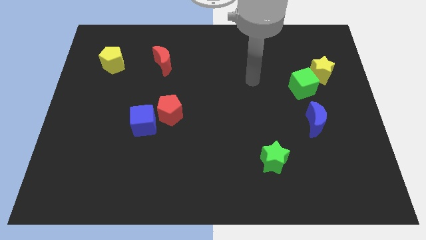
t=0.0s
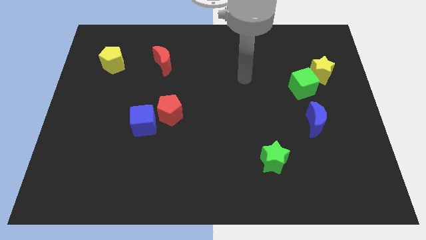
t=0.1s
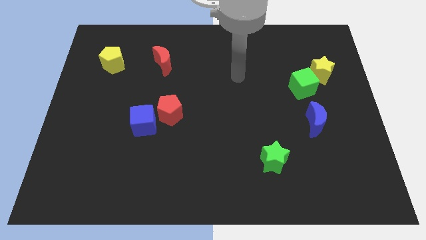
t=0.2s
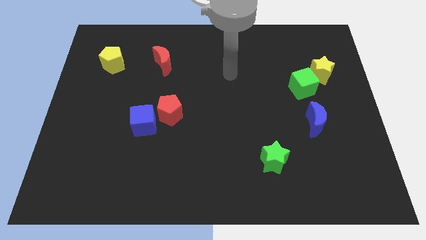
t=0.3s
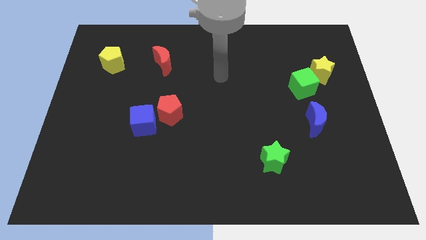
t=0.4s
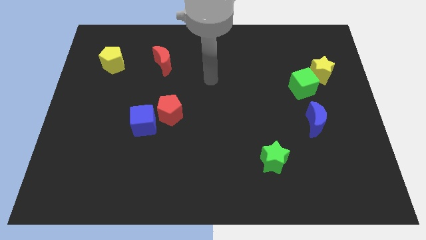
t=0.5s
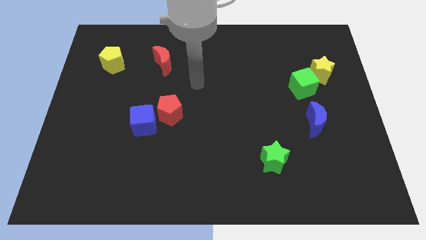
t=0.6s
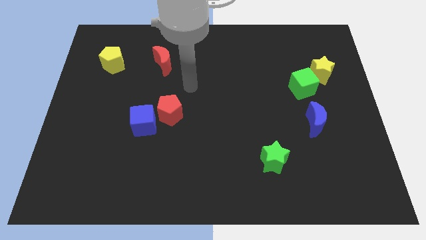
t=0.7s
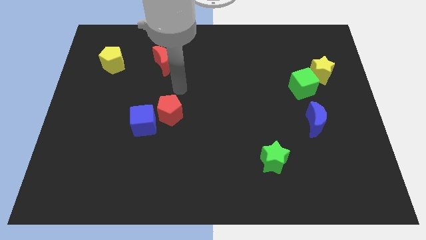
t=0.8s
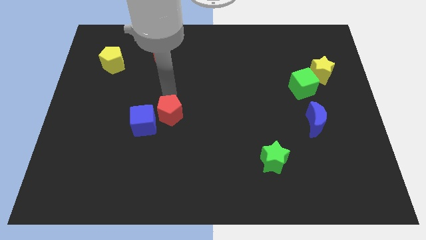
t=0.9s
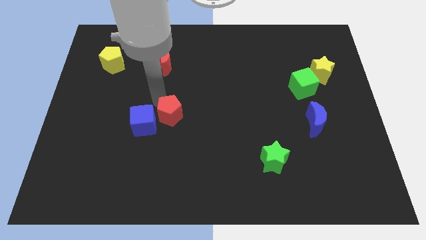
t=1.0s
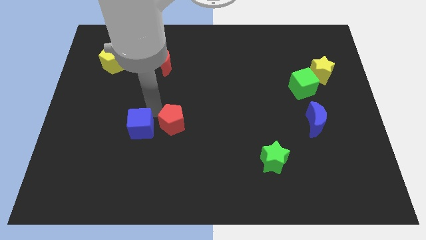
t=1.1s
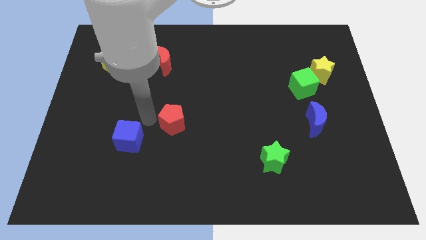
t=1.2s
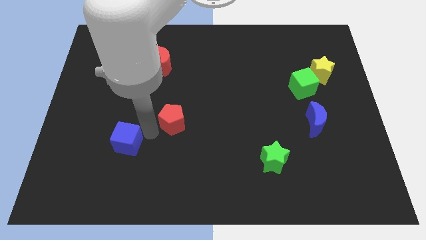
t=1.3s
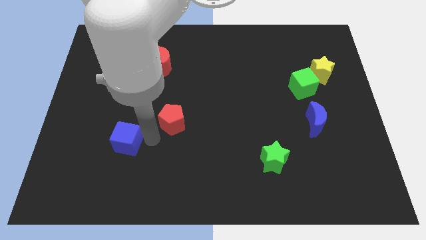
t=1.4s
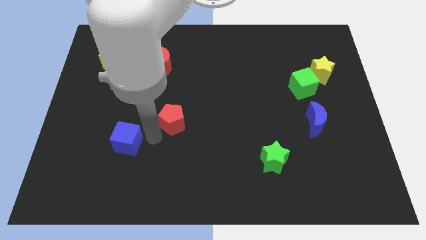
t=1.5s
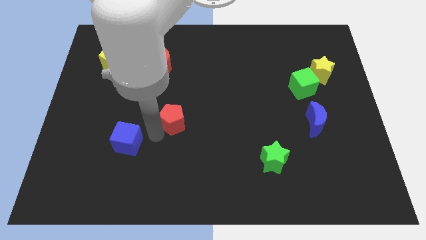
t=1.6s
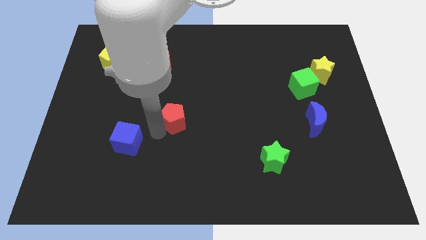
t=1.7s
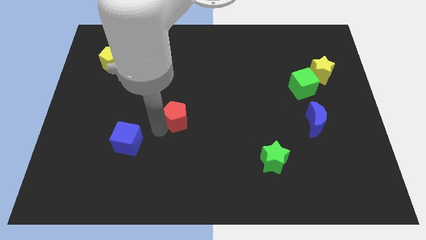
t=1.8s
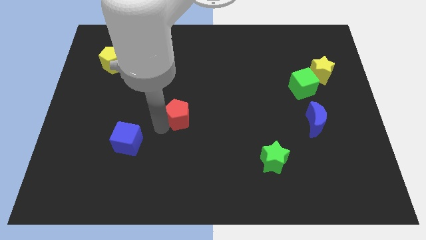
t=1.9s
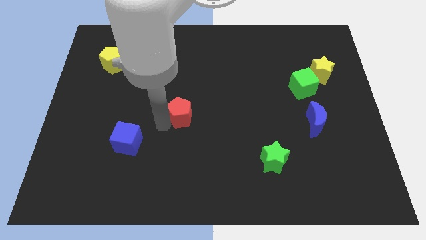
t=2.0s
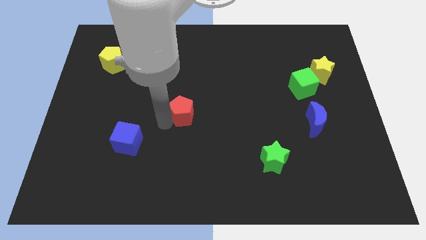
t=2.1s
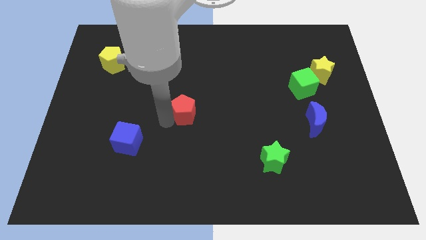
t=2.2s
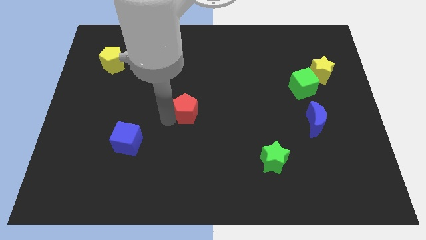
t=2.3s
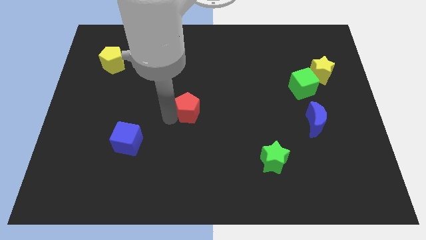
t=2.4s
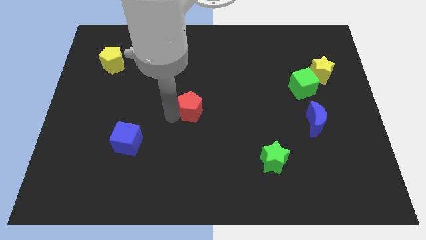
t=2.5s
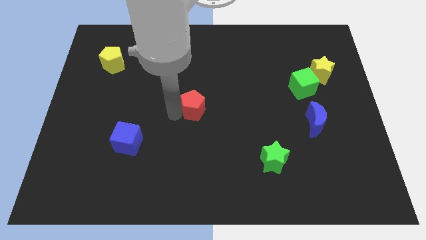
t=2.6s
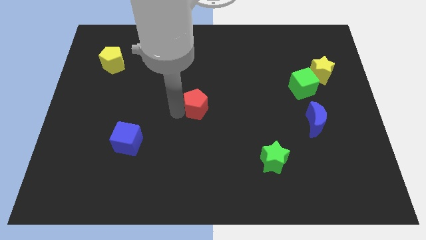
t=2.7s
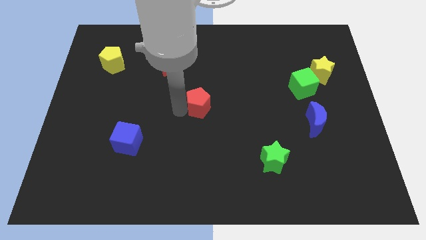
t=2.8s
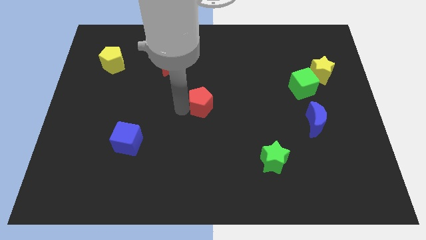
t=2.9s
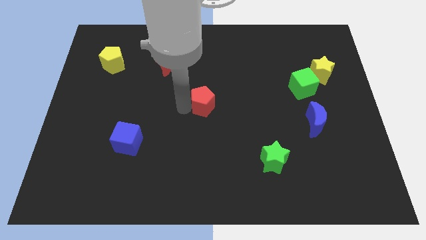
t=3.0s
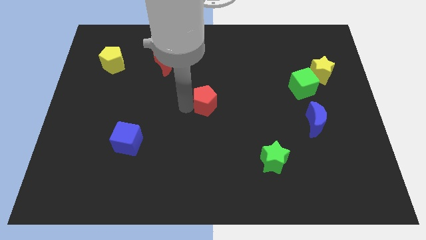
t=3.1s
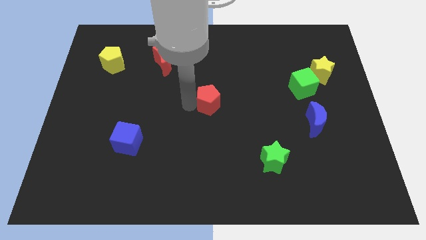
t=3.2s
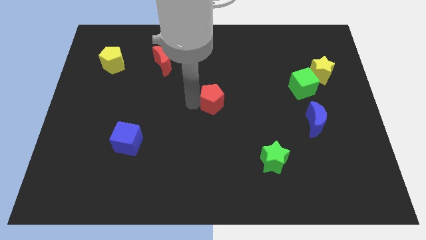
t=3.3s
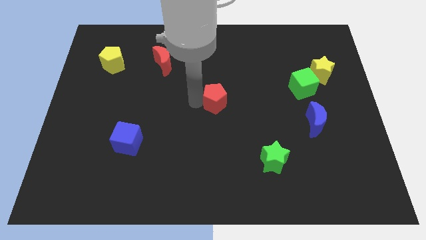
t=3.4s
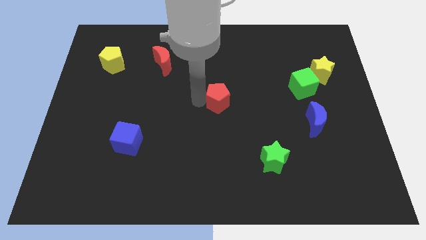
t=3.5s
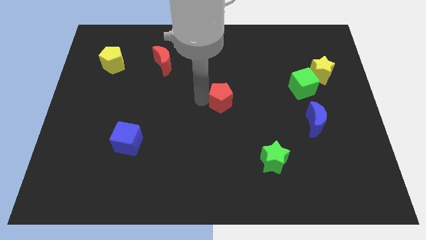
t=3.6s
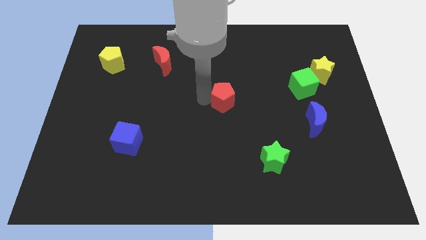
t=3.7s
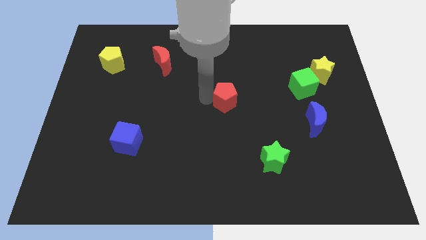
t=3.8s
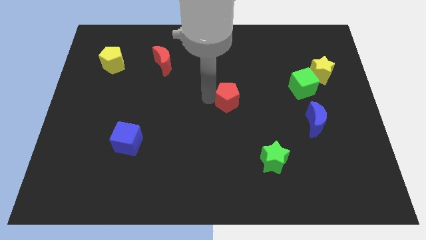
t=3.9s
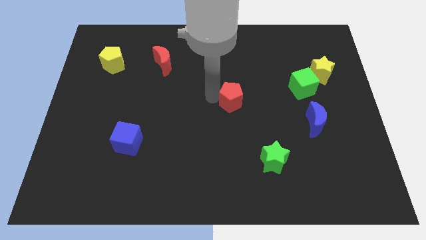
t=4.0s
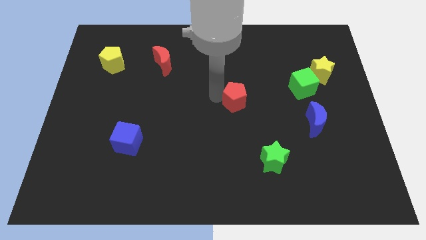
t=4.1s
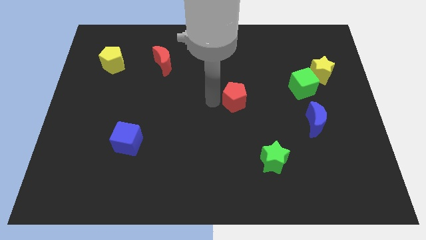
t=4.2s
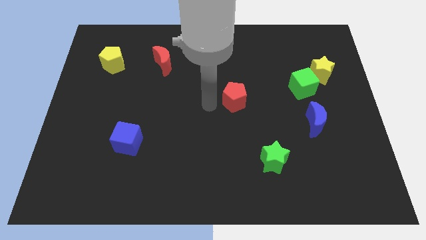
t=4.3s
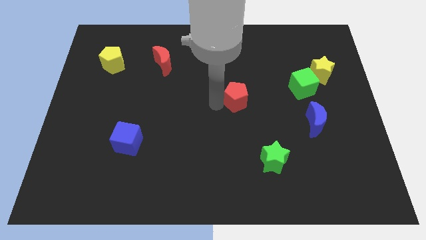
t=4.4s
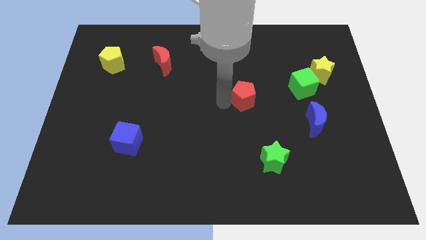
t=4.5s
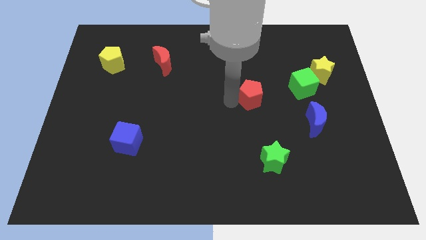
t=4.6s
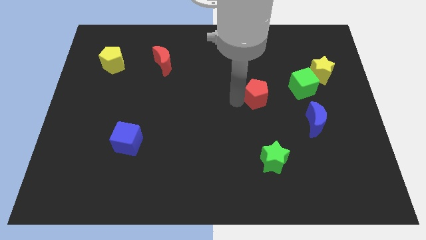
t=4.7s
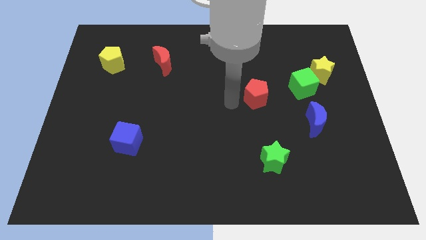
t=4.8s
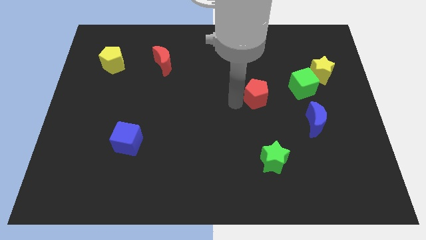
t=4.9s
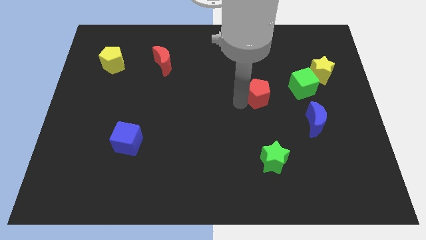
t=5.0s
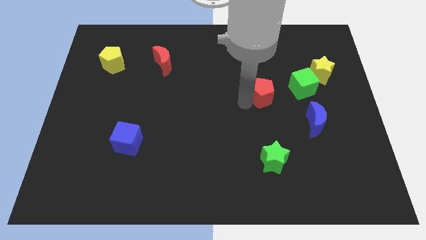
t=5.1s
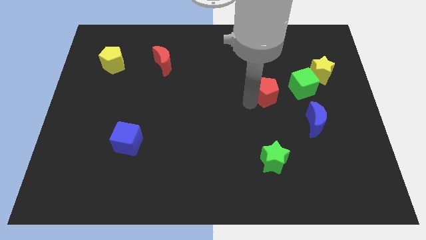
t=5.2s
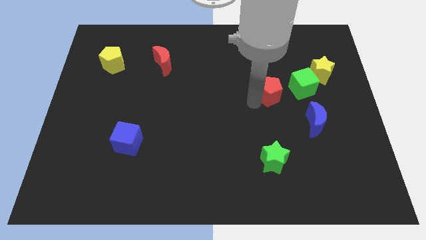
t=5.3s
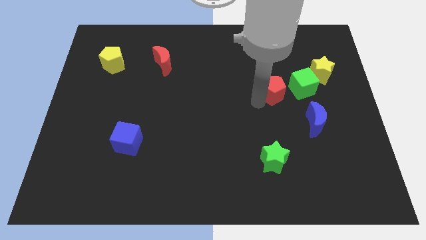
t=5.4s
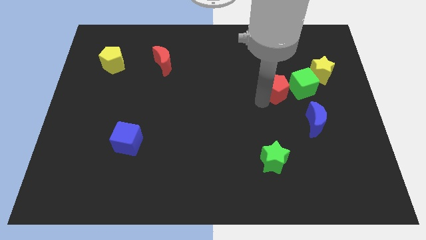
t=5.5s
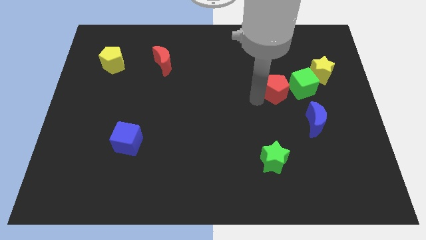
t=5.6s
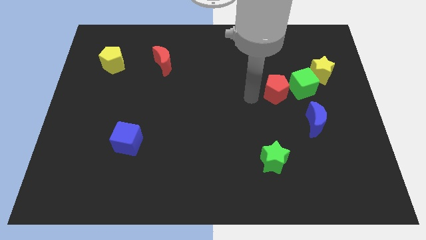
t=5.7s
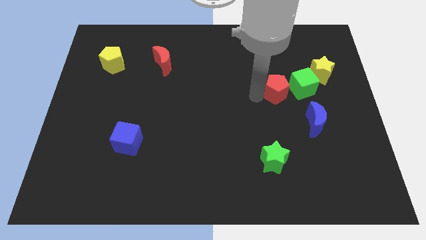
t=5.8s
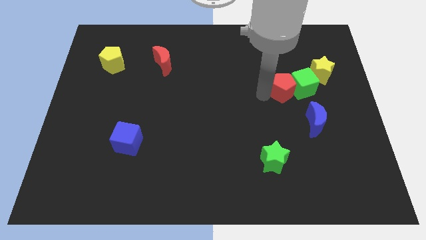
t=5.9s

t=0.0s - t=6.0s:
slide the red pentagon towards the green cube

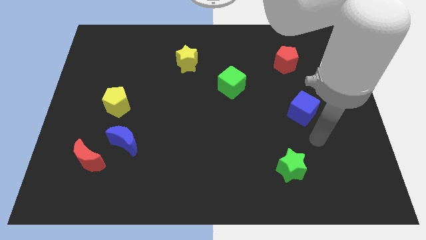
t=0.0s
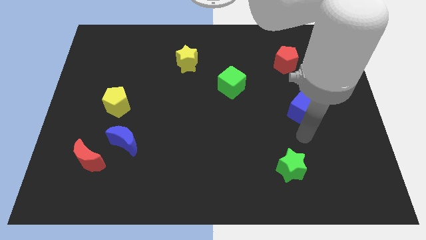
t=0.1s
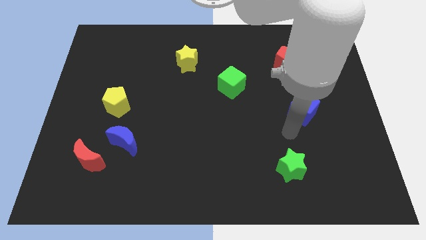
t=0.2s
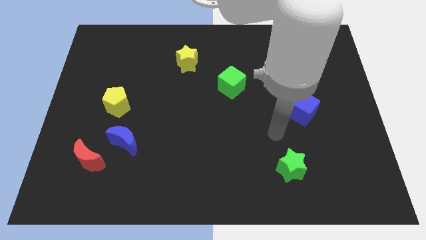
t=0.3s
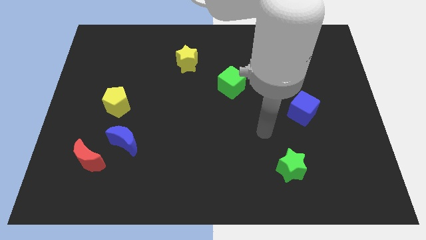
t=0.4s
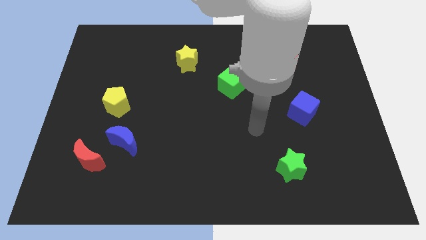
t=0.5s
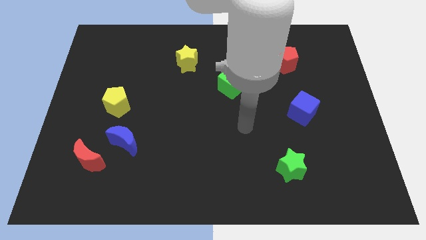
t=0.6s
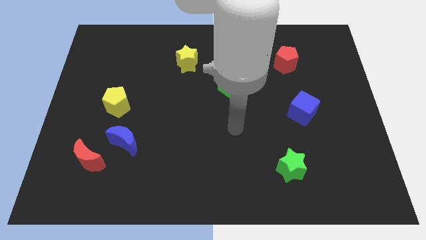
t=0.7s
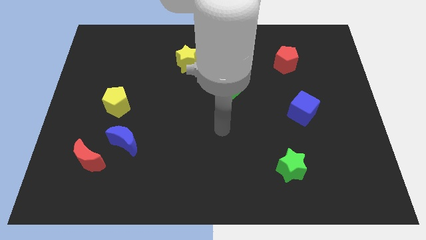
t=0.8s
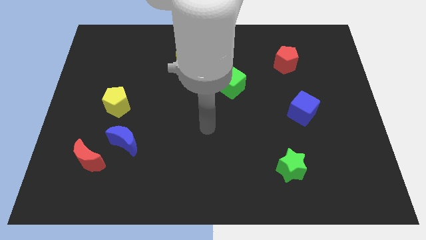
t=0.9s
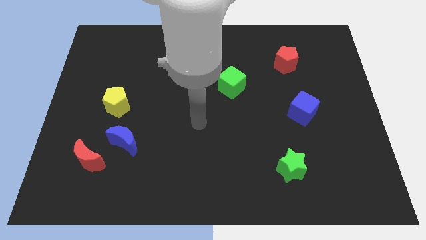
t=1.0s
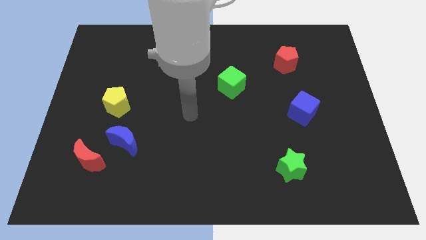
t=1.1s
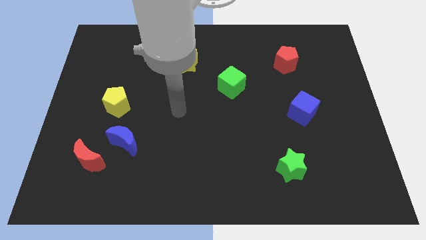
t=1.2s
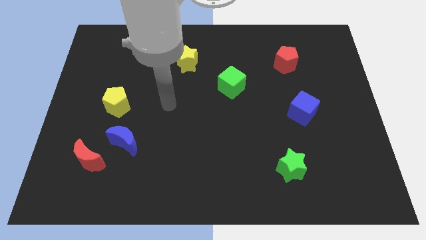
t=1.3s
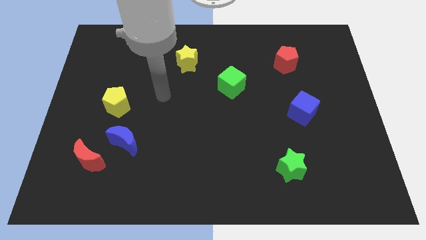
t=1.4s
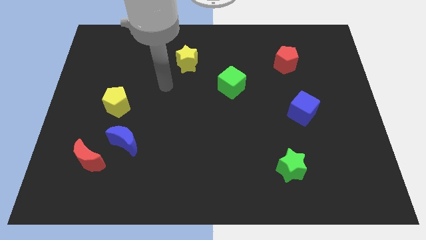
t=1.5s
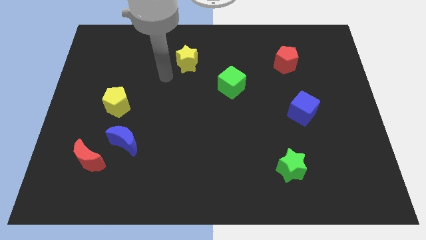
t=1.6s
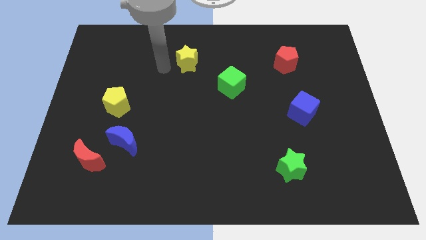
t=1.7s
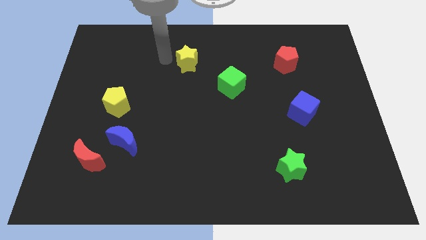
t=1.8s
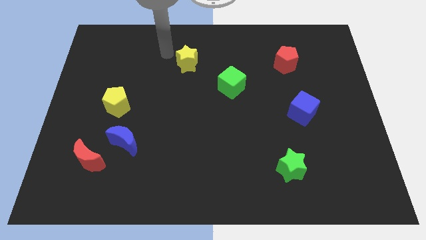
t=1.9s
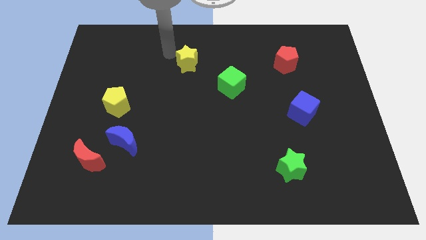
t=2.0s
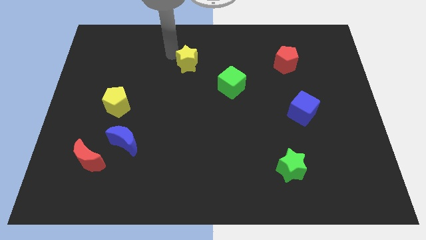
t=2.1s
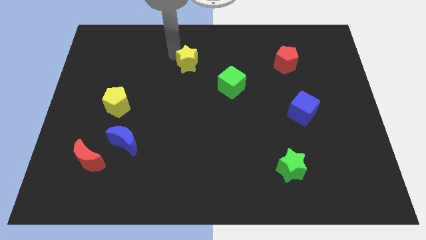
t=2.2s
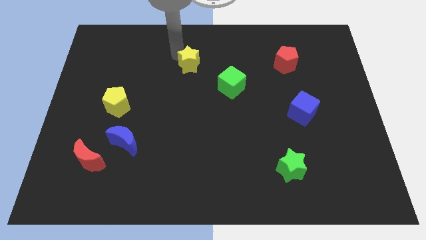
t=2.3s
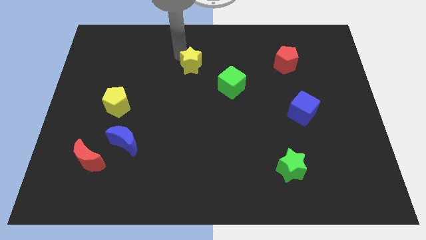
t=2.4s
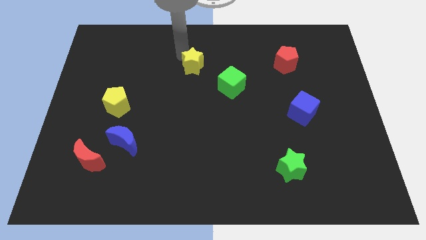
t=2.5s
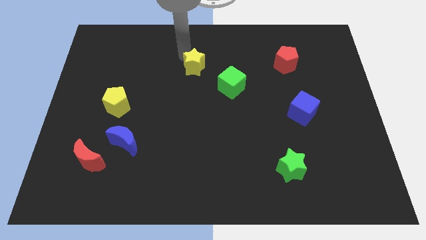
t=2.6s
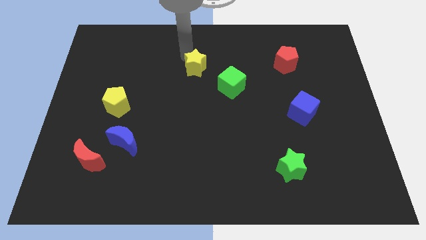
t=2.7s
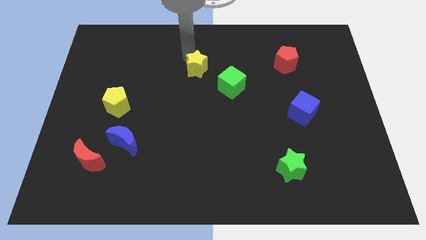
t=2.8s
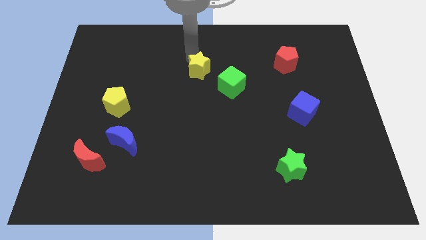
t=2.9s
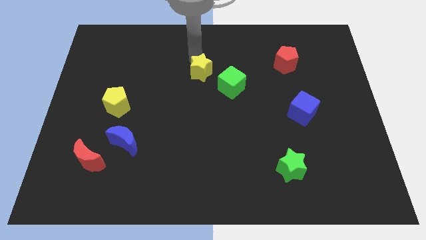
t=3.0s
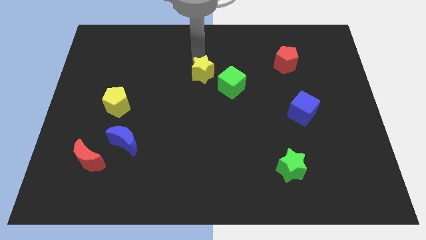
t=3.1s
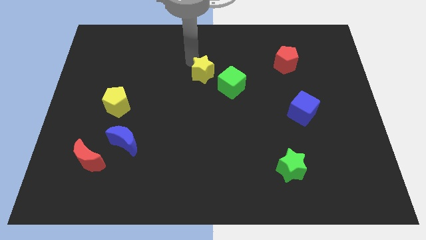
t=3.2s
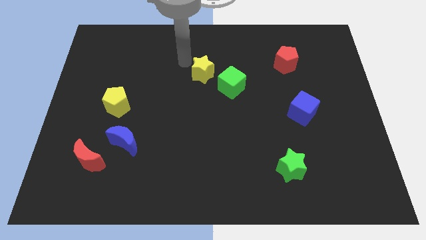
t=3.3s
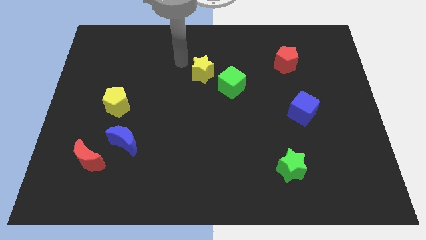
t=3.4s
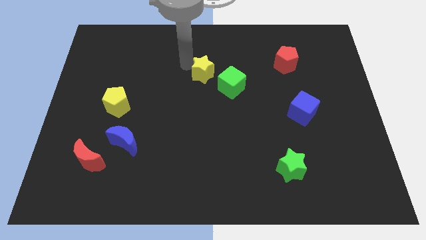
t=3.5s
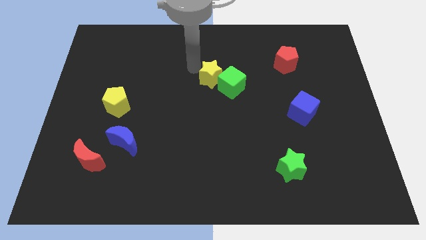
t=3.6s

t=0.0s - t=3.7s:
move the yellow star next to the green cube
